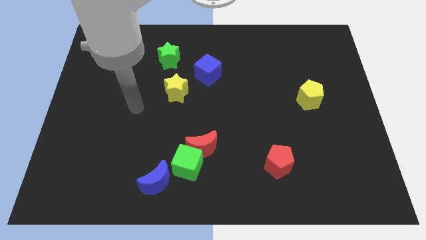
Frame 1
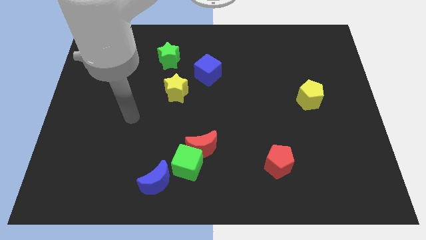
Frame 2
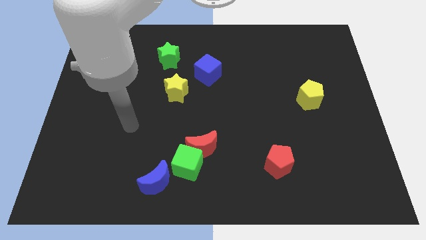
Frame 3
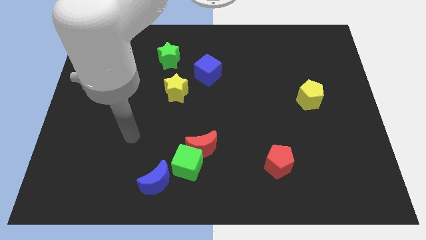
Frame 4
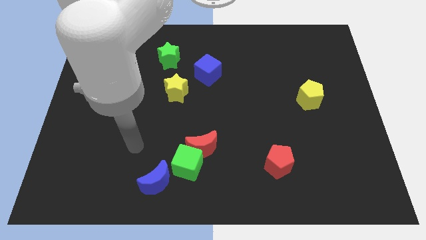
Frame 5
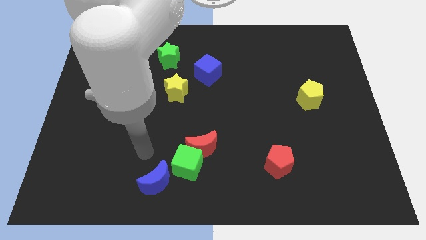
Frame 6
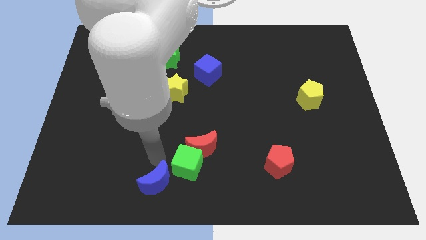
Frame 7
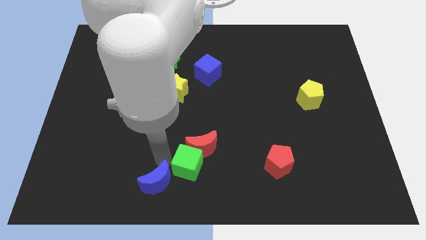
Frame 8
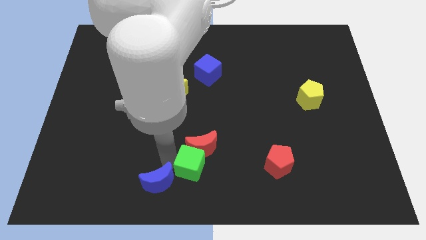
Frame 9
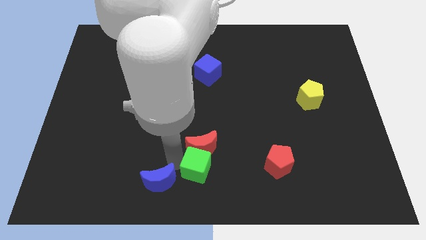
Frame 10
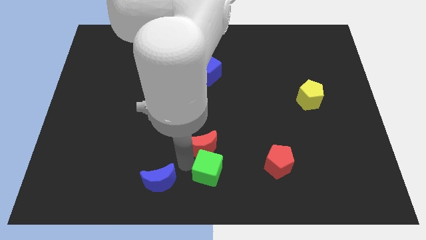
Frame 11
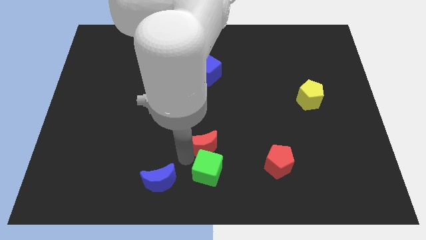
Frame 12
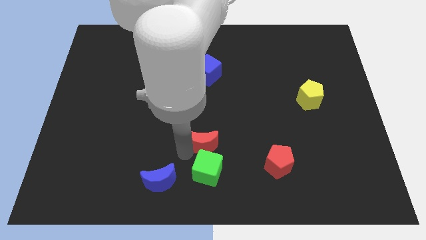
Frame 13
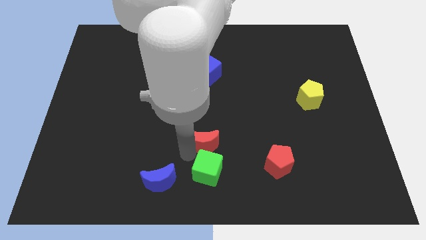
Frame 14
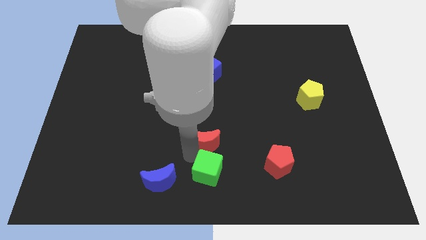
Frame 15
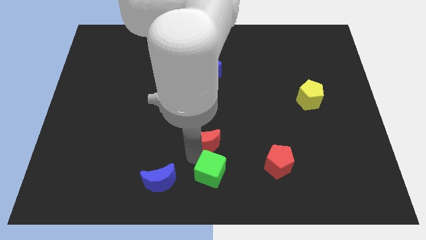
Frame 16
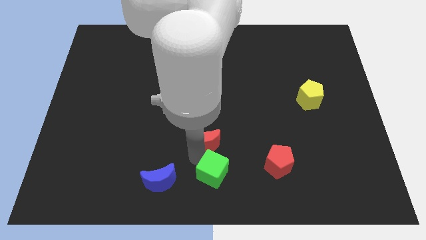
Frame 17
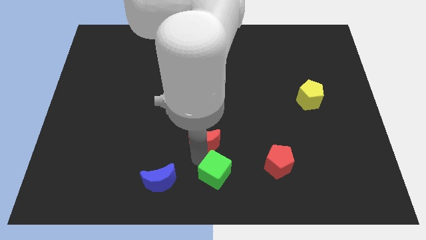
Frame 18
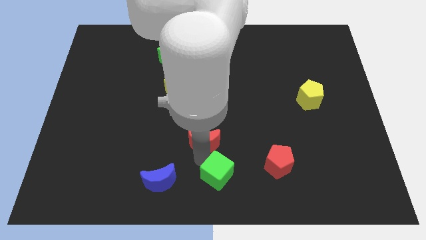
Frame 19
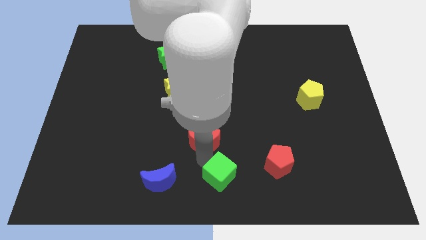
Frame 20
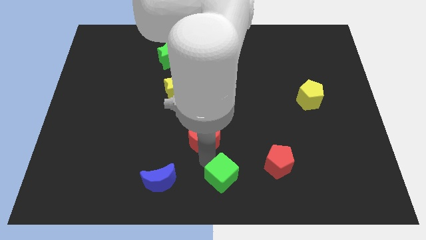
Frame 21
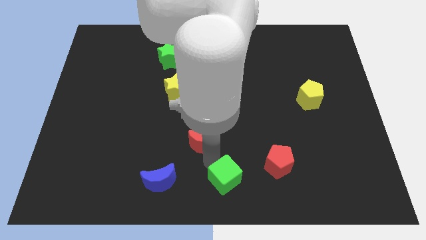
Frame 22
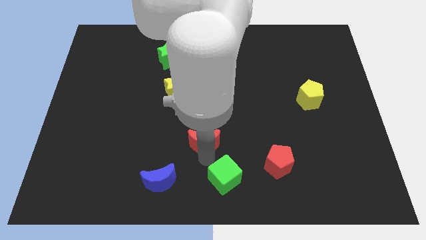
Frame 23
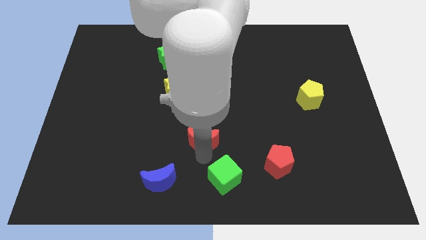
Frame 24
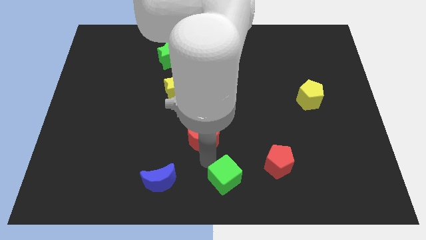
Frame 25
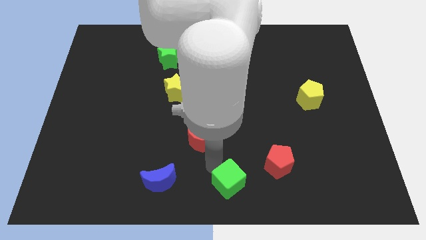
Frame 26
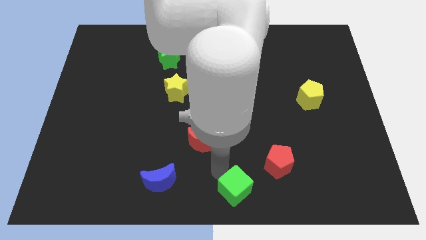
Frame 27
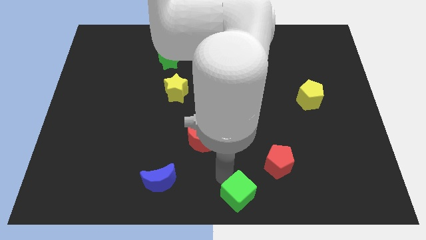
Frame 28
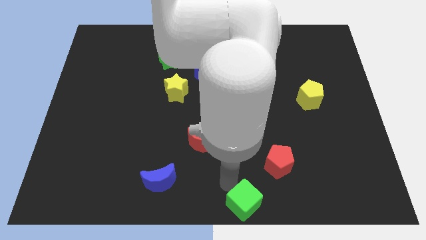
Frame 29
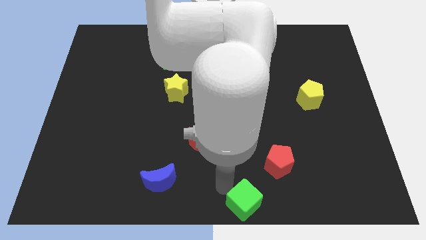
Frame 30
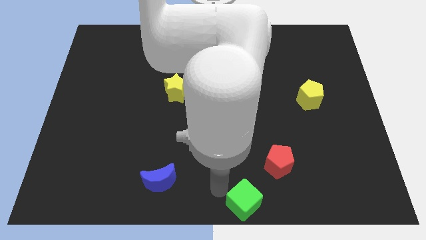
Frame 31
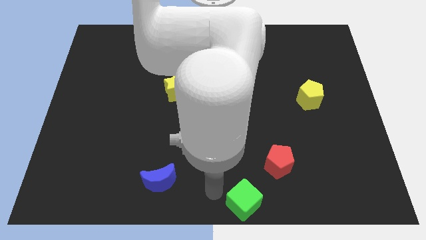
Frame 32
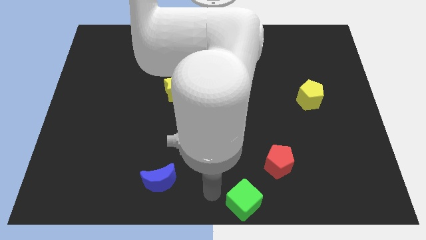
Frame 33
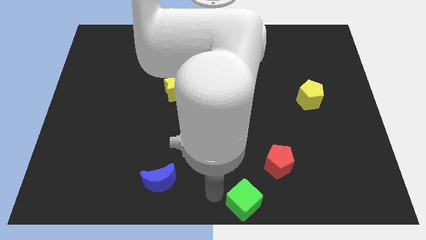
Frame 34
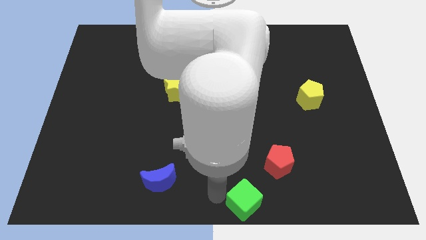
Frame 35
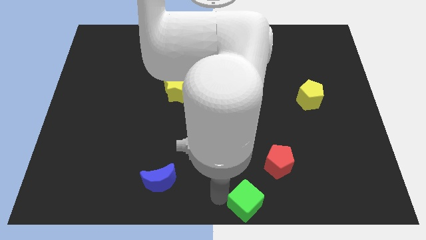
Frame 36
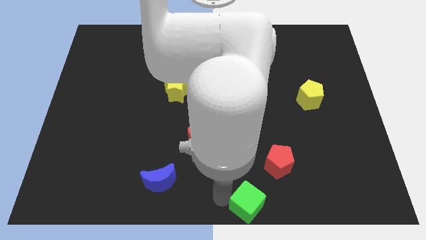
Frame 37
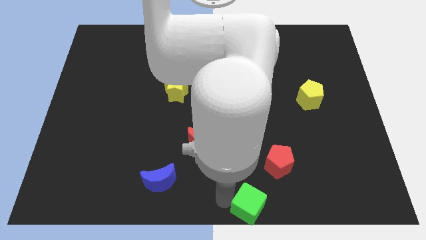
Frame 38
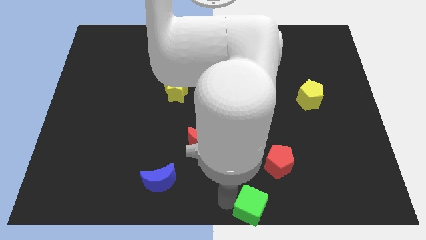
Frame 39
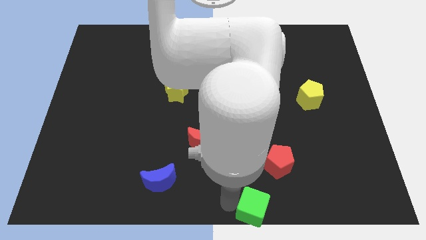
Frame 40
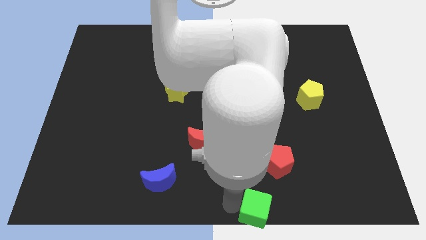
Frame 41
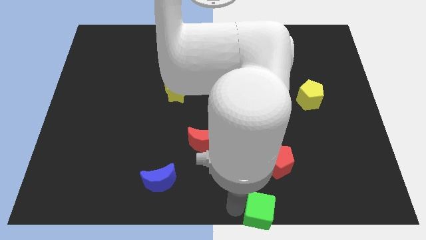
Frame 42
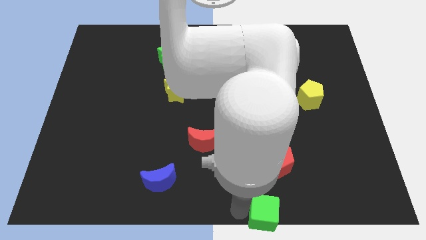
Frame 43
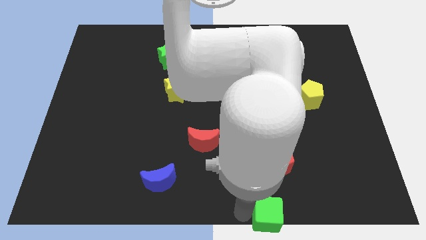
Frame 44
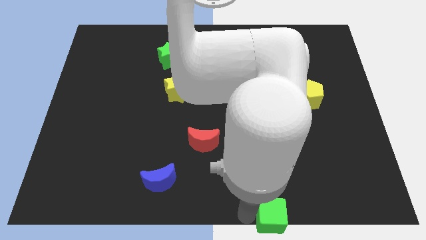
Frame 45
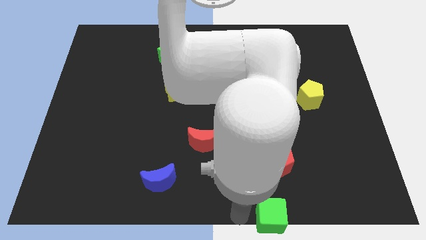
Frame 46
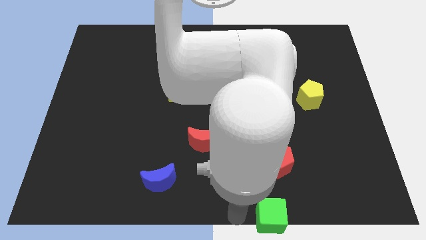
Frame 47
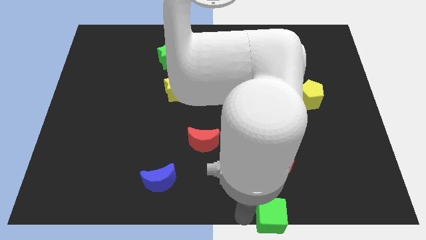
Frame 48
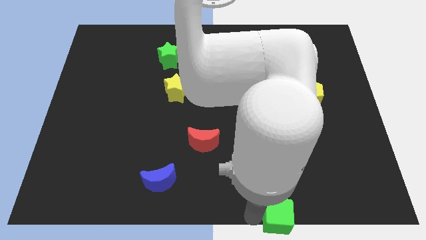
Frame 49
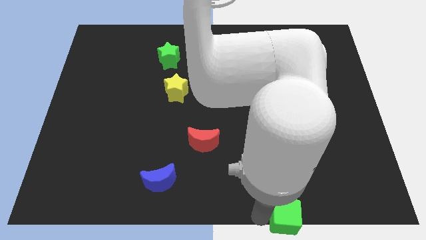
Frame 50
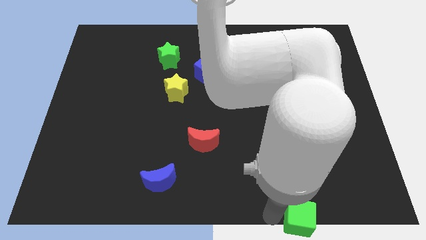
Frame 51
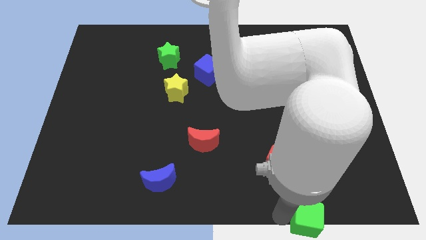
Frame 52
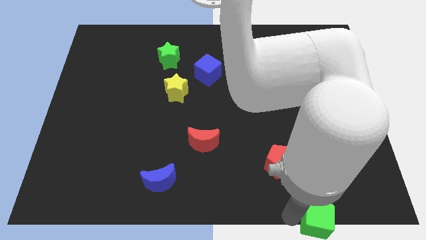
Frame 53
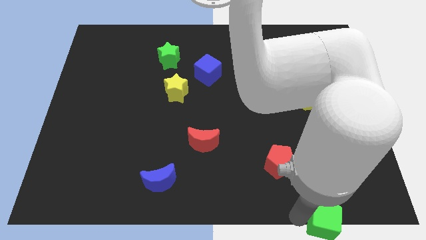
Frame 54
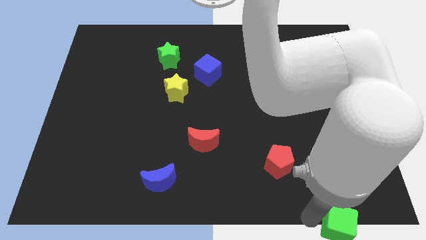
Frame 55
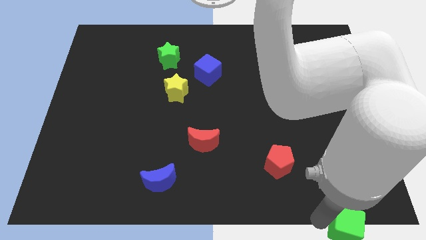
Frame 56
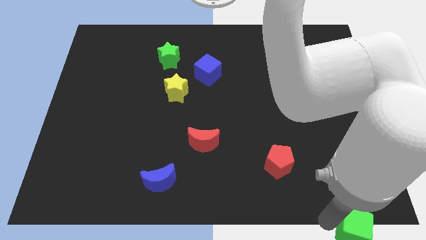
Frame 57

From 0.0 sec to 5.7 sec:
move the green cube to the bottom right corner

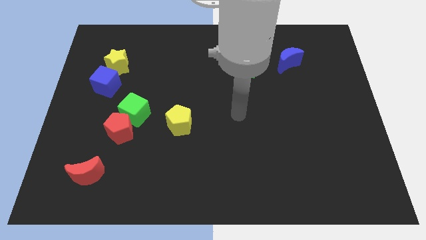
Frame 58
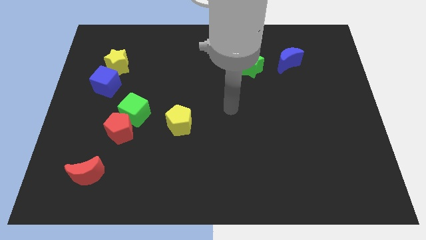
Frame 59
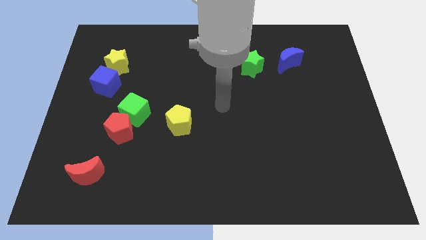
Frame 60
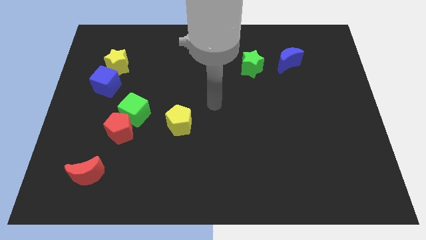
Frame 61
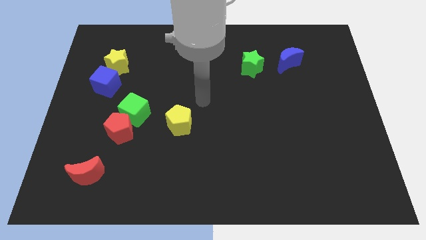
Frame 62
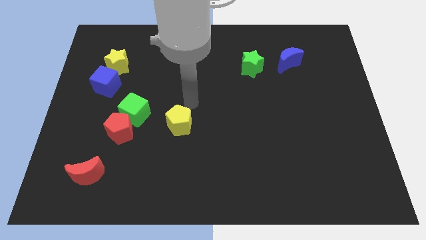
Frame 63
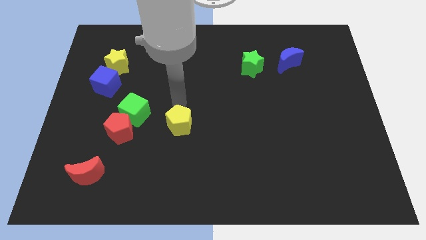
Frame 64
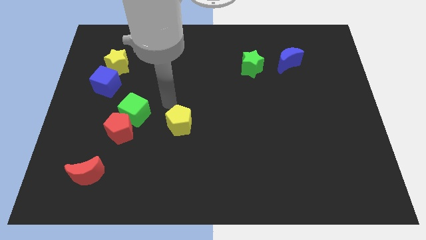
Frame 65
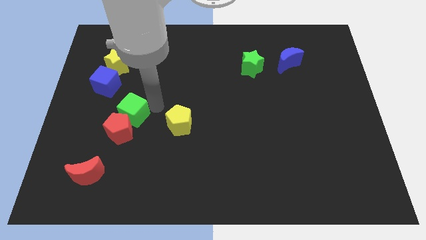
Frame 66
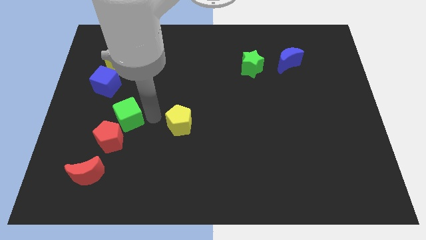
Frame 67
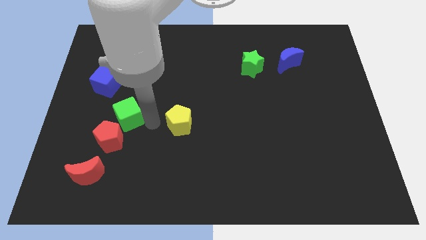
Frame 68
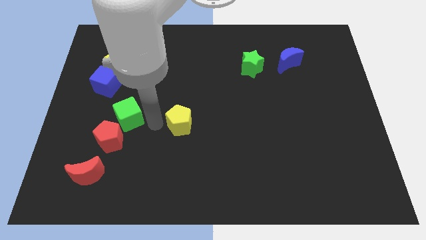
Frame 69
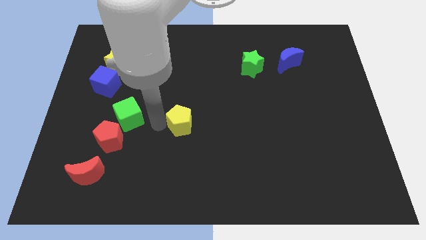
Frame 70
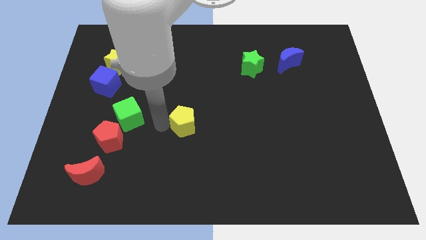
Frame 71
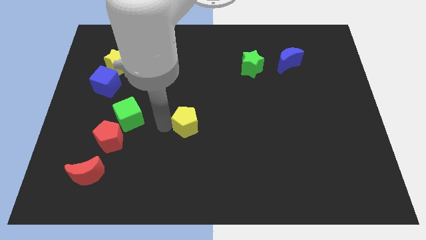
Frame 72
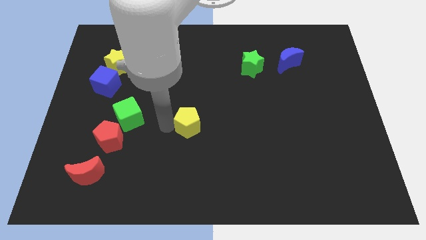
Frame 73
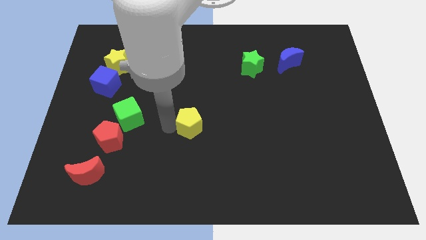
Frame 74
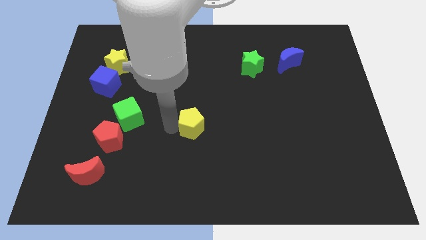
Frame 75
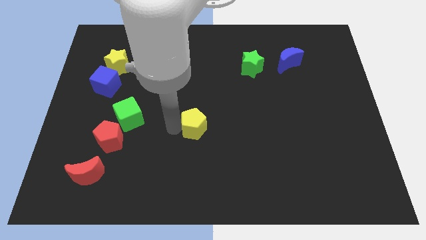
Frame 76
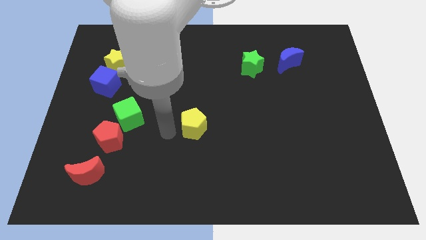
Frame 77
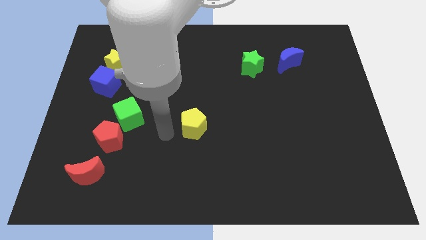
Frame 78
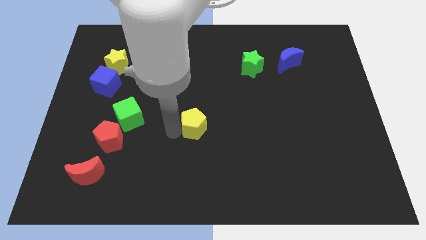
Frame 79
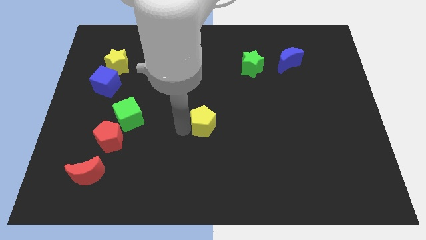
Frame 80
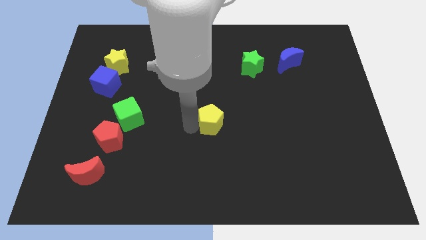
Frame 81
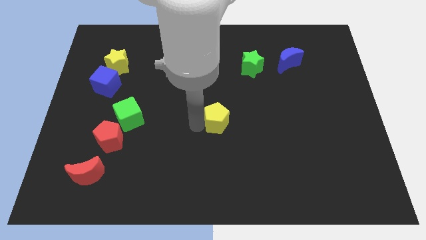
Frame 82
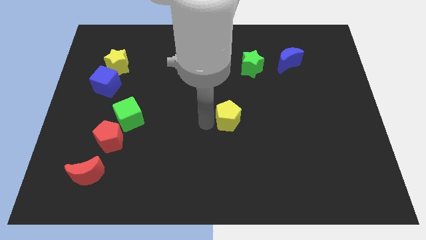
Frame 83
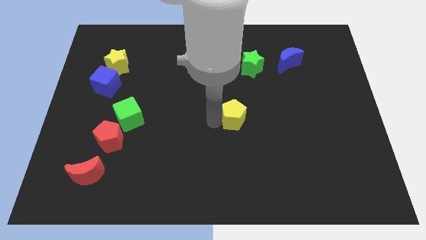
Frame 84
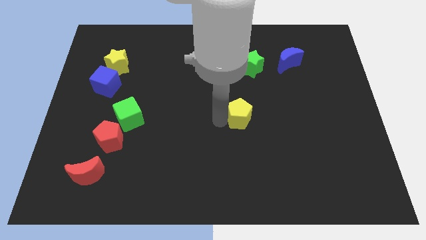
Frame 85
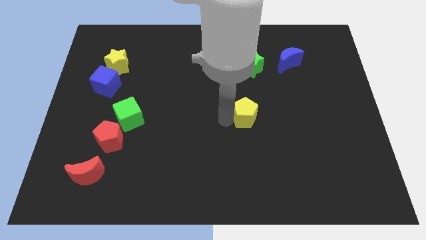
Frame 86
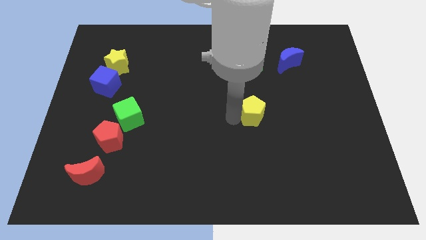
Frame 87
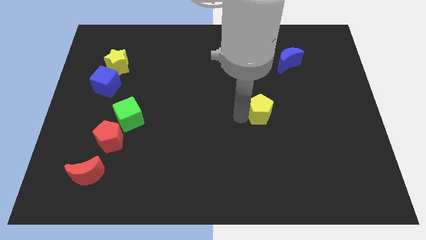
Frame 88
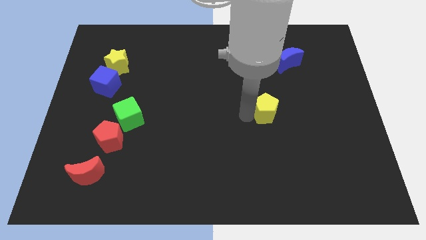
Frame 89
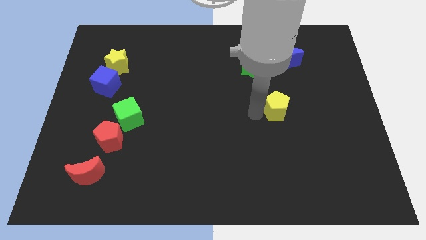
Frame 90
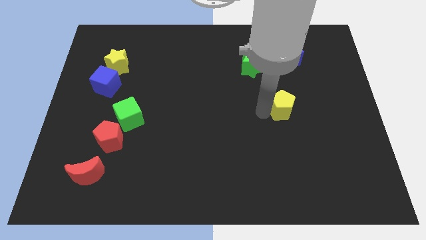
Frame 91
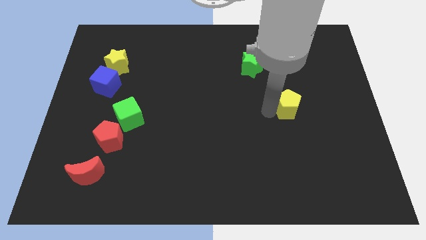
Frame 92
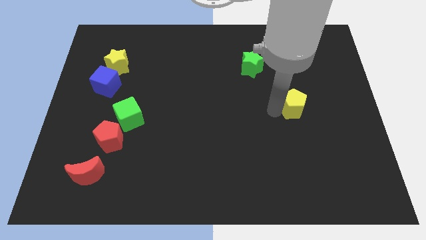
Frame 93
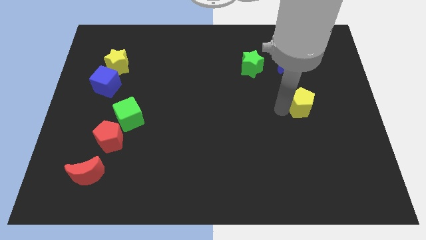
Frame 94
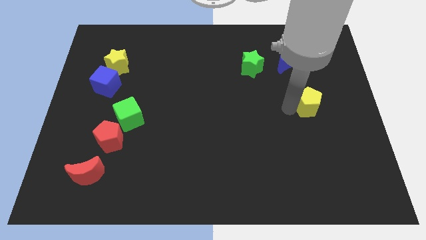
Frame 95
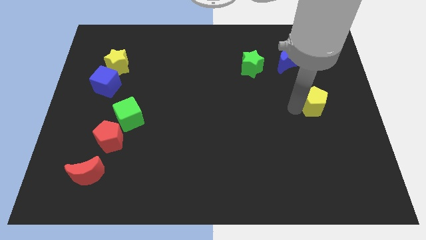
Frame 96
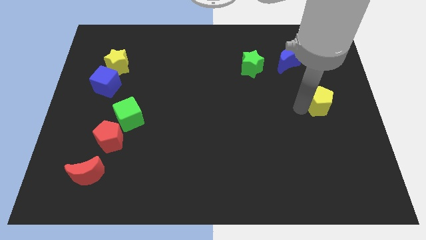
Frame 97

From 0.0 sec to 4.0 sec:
move the yellow pentagon to the center right
